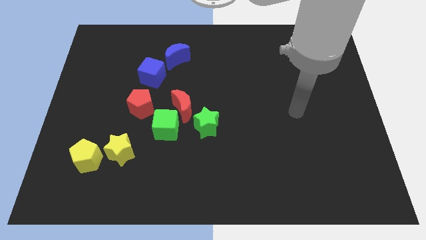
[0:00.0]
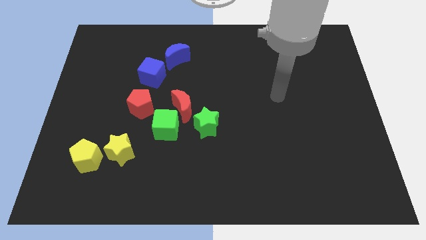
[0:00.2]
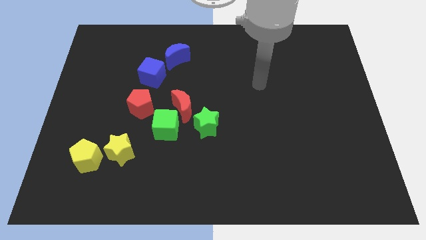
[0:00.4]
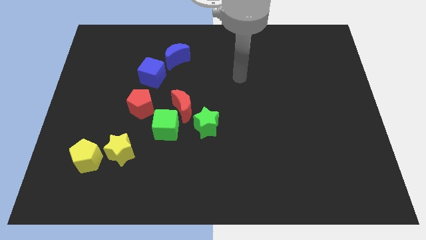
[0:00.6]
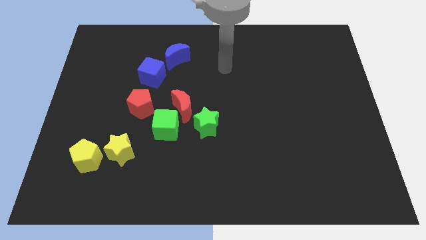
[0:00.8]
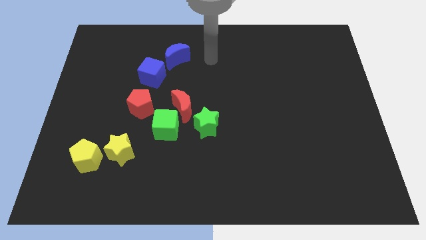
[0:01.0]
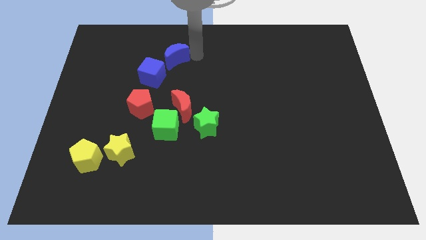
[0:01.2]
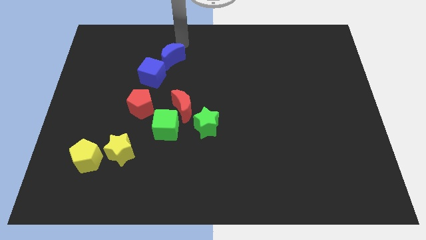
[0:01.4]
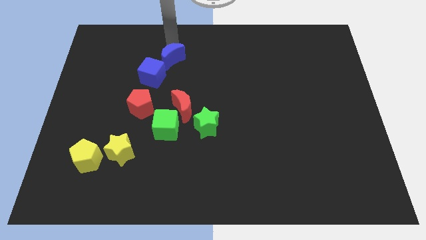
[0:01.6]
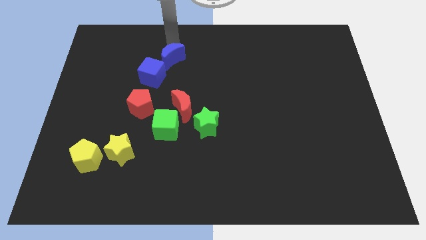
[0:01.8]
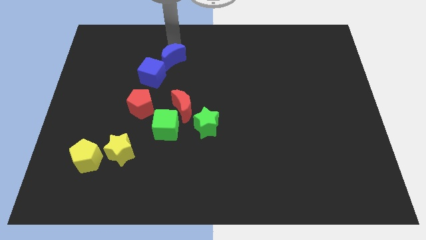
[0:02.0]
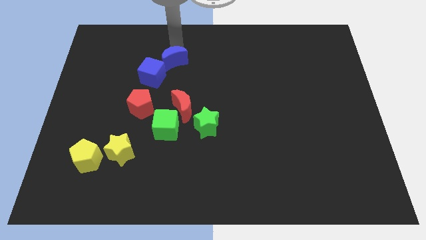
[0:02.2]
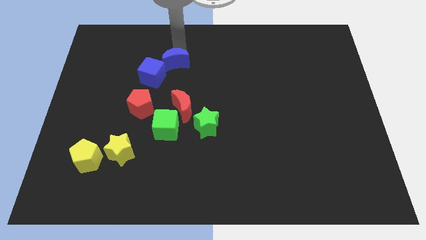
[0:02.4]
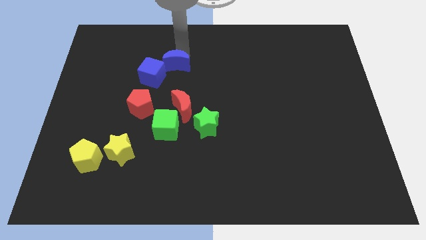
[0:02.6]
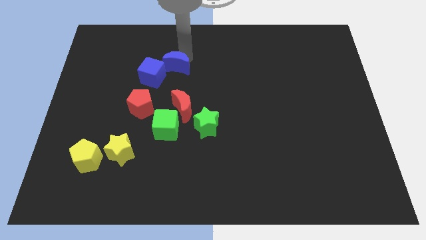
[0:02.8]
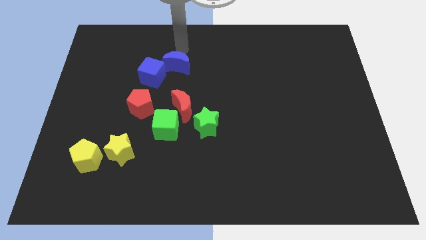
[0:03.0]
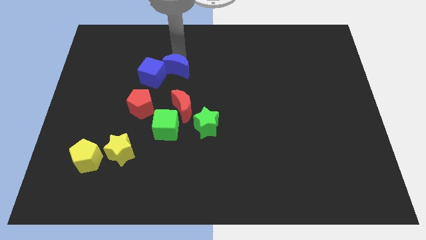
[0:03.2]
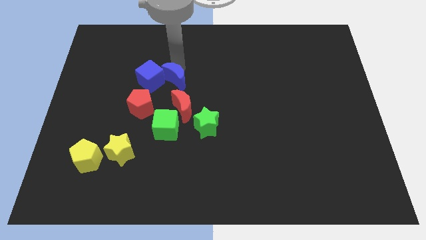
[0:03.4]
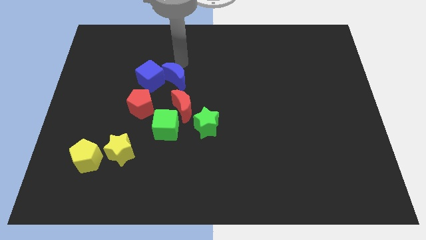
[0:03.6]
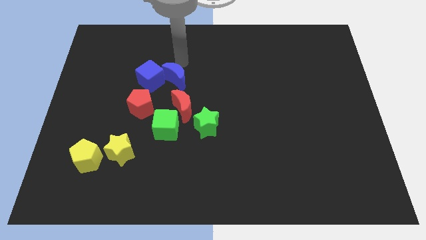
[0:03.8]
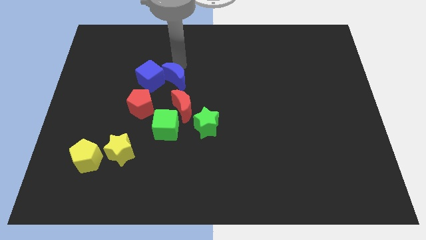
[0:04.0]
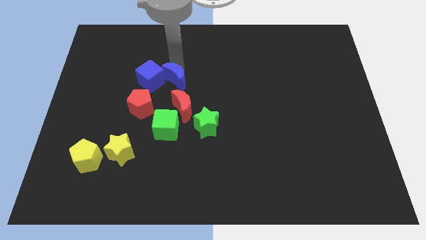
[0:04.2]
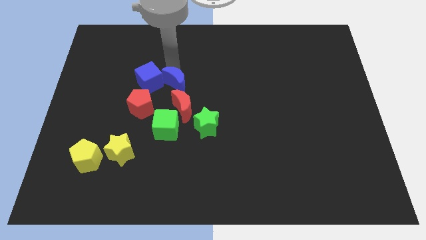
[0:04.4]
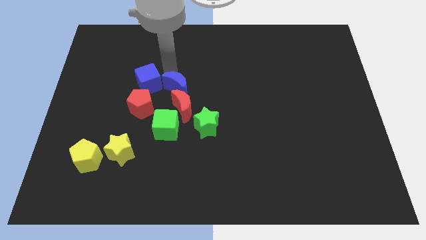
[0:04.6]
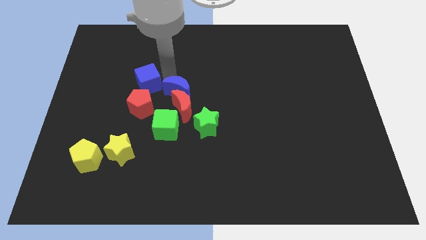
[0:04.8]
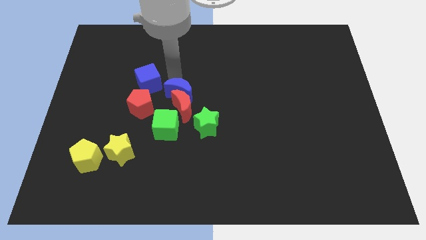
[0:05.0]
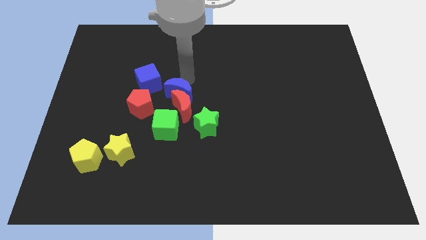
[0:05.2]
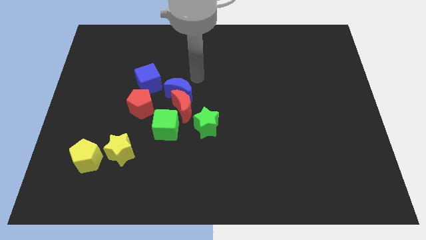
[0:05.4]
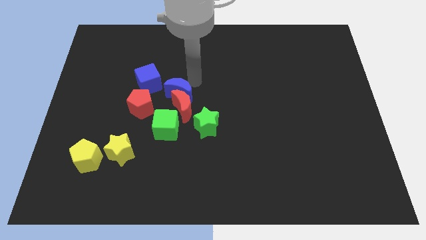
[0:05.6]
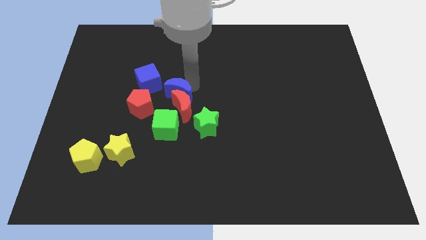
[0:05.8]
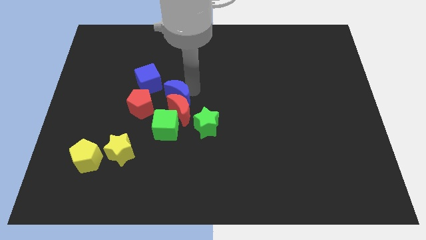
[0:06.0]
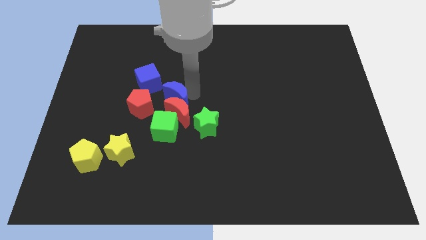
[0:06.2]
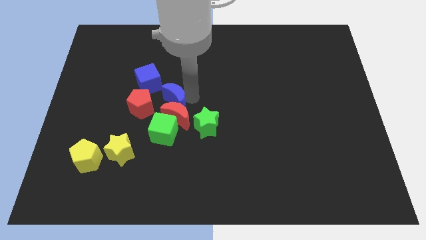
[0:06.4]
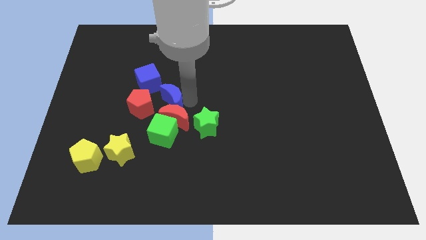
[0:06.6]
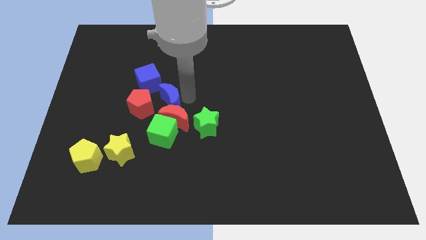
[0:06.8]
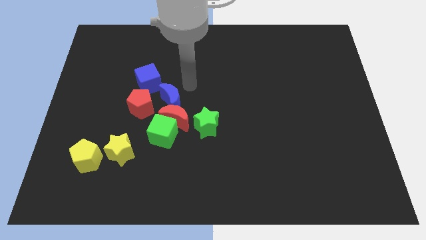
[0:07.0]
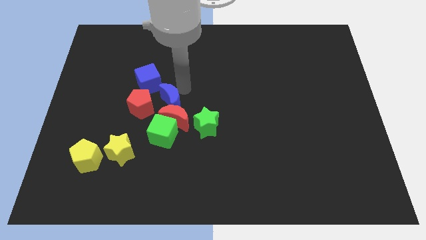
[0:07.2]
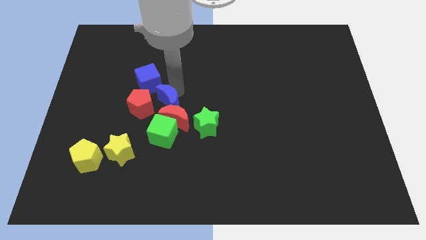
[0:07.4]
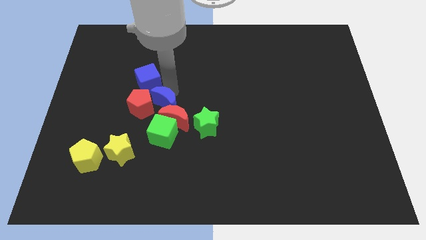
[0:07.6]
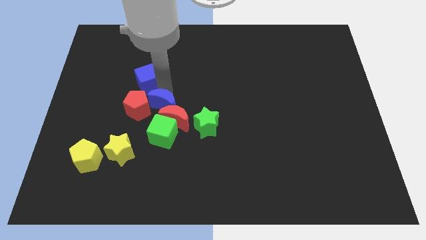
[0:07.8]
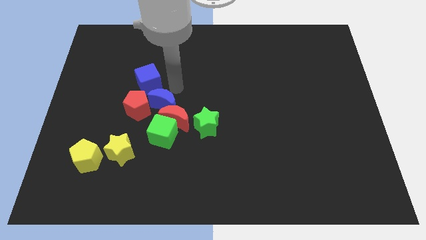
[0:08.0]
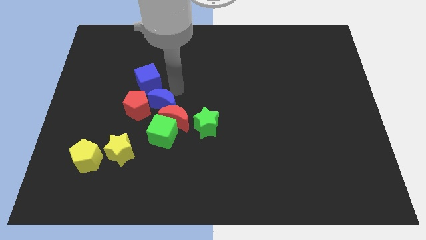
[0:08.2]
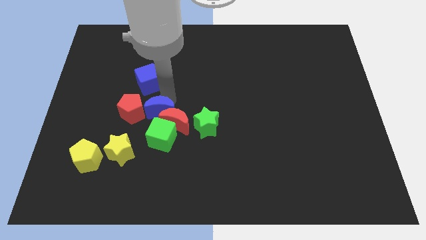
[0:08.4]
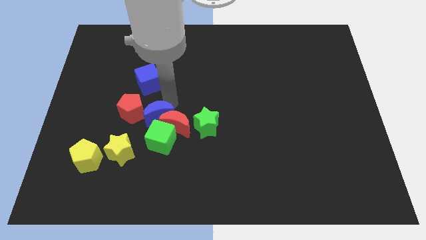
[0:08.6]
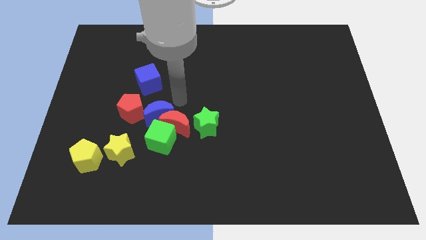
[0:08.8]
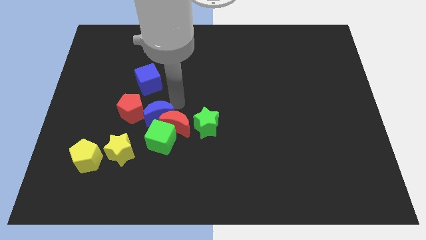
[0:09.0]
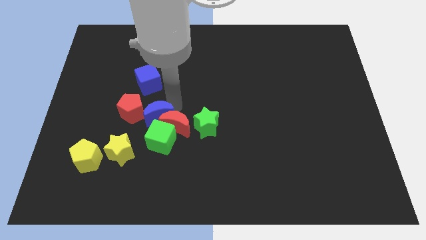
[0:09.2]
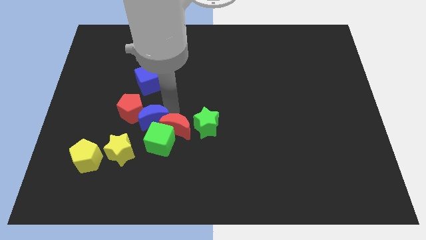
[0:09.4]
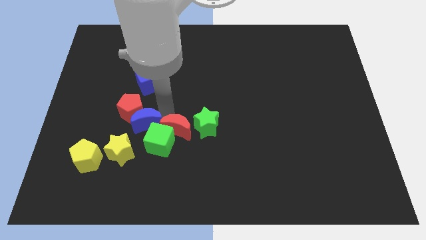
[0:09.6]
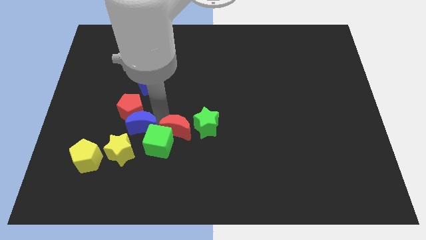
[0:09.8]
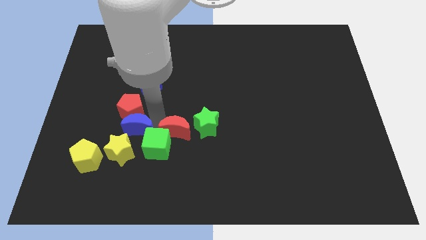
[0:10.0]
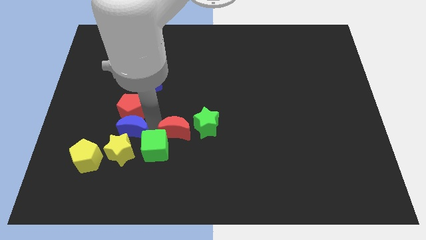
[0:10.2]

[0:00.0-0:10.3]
move the blue moon next to the yellow star

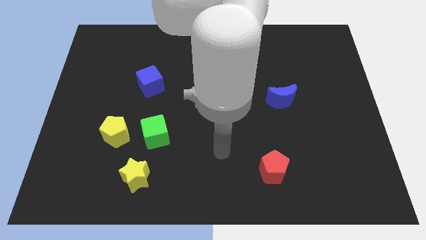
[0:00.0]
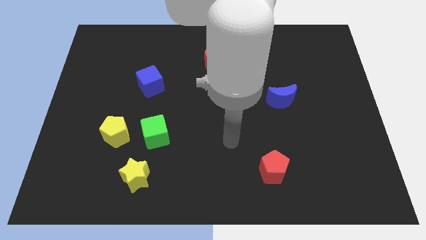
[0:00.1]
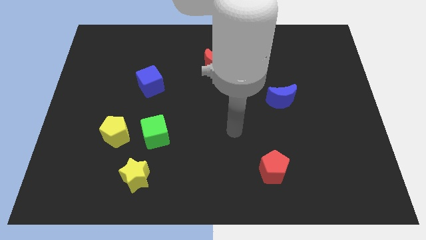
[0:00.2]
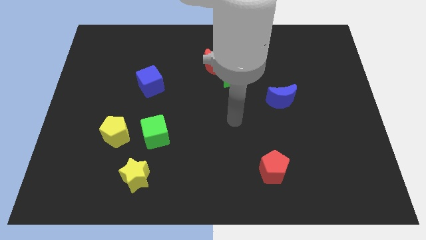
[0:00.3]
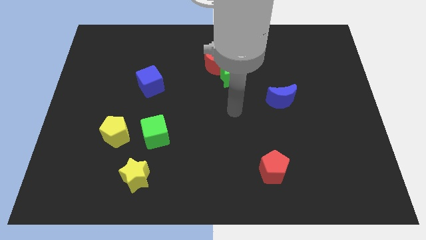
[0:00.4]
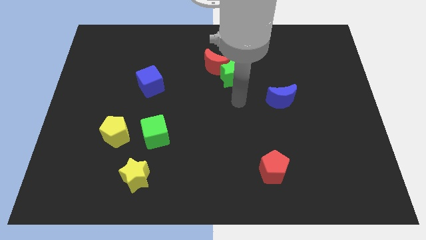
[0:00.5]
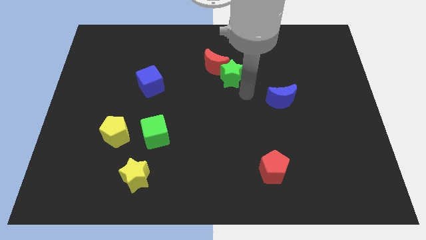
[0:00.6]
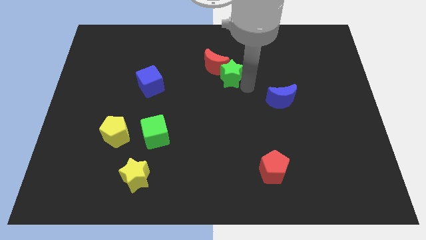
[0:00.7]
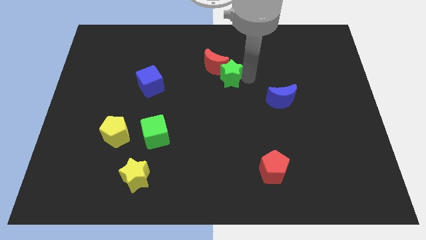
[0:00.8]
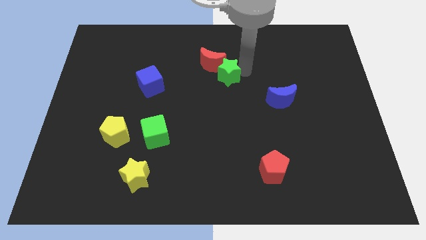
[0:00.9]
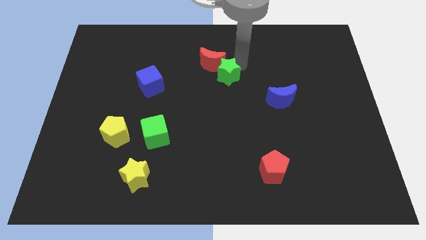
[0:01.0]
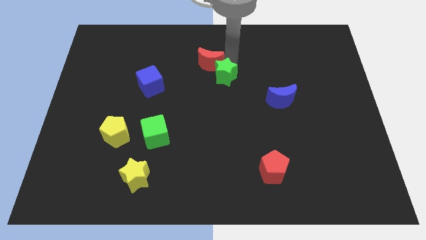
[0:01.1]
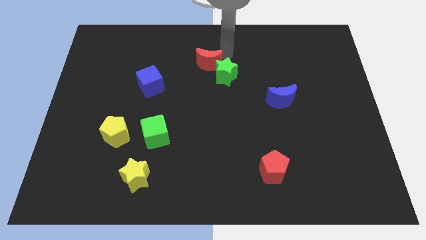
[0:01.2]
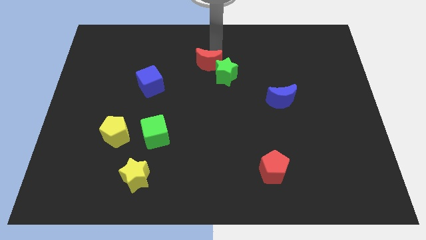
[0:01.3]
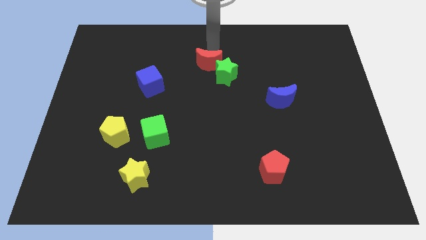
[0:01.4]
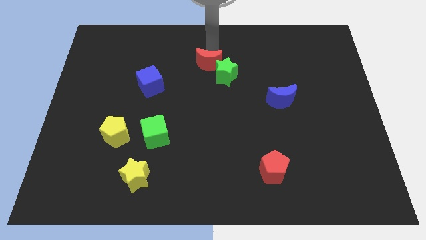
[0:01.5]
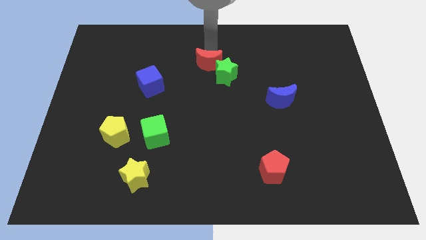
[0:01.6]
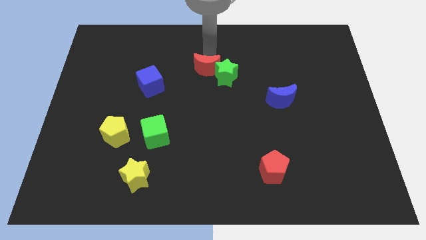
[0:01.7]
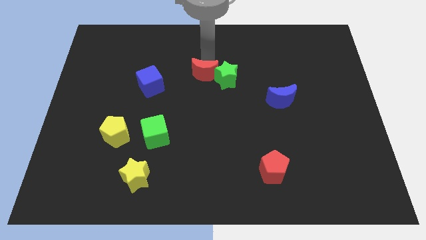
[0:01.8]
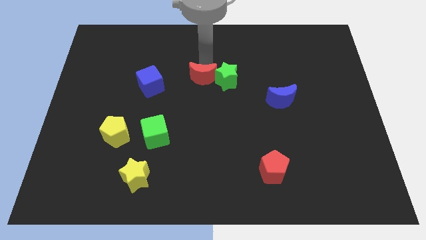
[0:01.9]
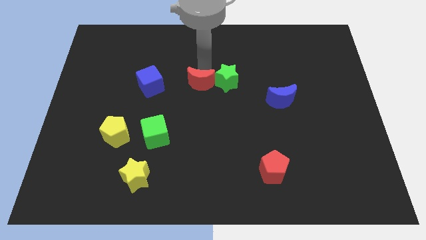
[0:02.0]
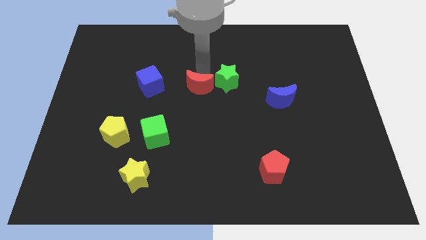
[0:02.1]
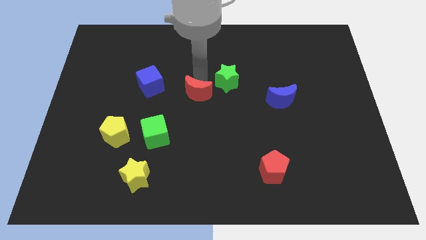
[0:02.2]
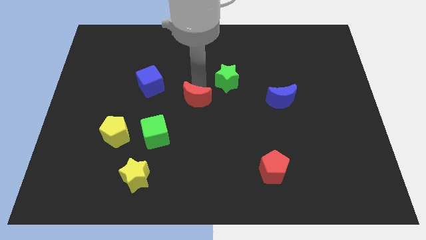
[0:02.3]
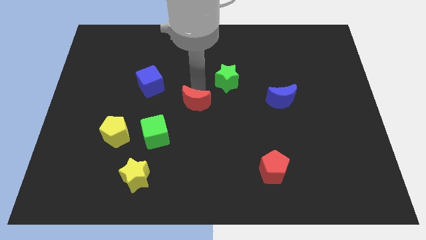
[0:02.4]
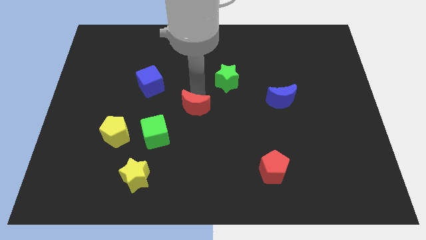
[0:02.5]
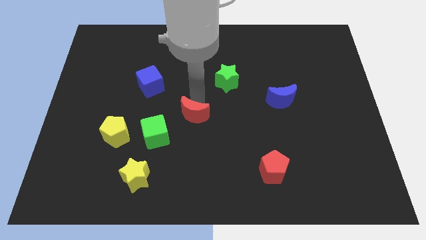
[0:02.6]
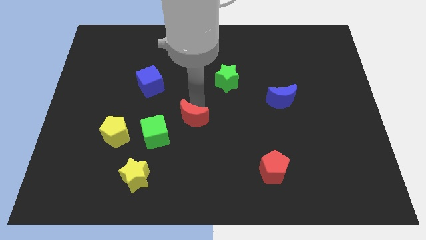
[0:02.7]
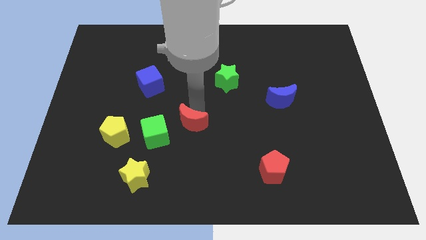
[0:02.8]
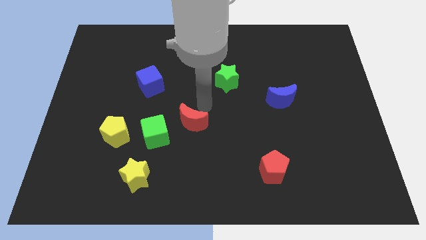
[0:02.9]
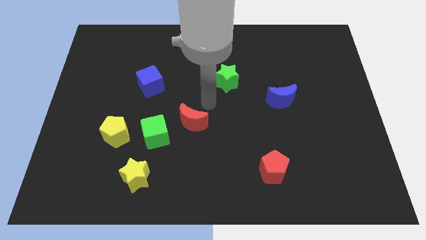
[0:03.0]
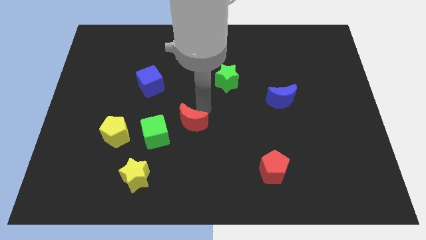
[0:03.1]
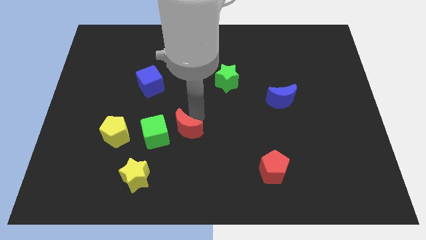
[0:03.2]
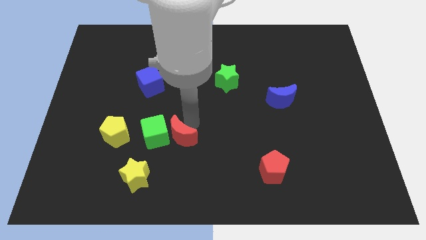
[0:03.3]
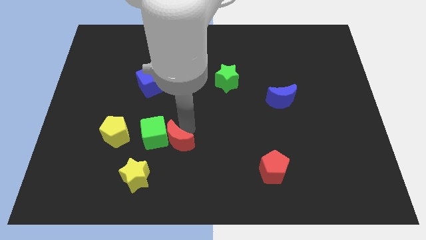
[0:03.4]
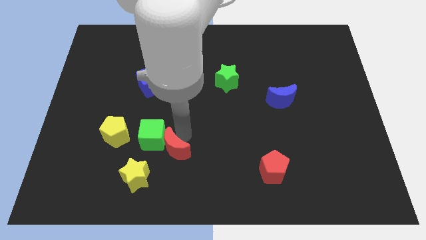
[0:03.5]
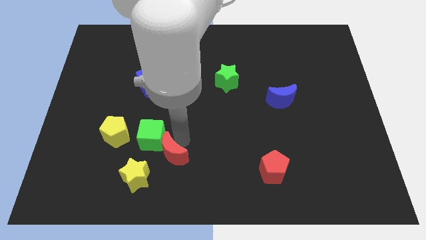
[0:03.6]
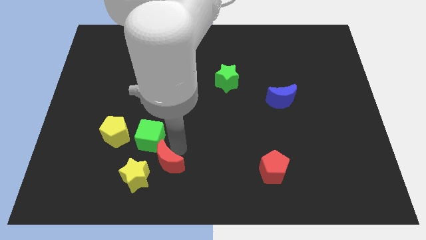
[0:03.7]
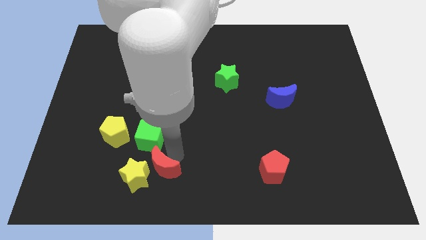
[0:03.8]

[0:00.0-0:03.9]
move the red moon next to the yellow star
